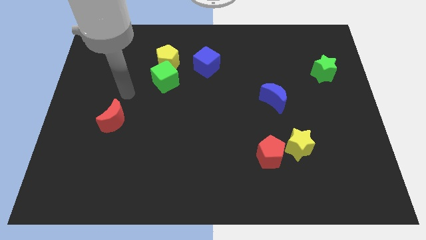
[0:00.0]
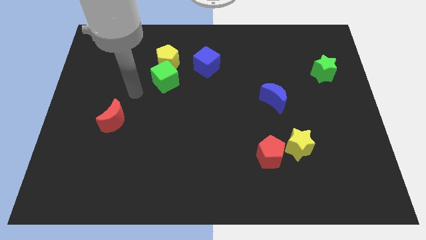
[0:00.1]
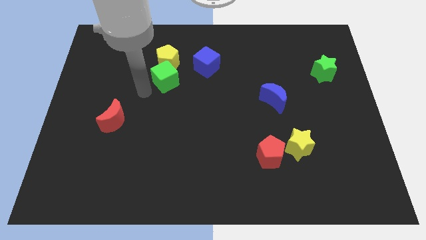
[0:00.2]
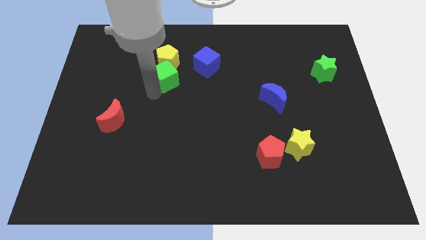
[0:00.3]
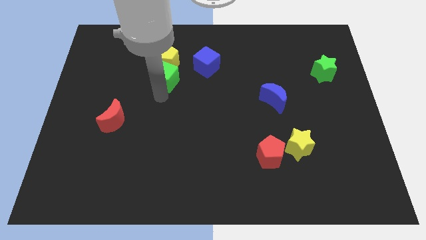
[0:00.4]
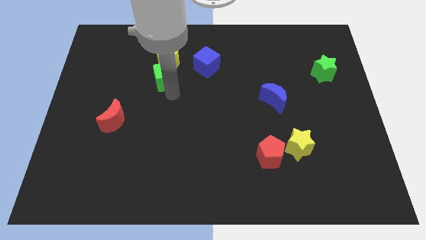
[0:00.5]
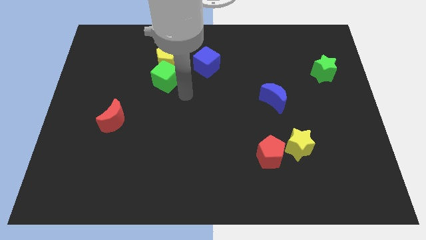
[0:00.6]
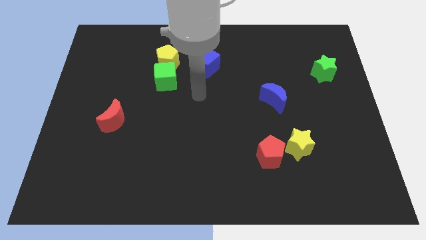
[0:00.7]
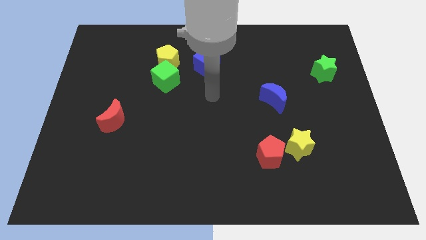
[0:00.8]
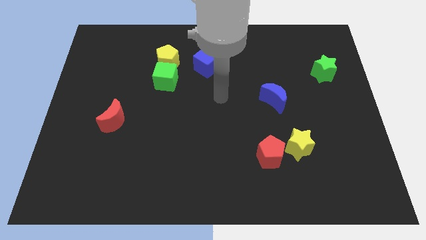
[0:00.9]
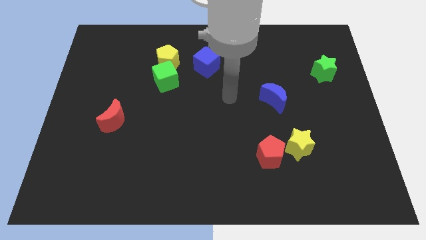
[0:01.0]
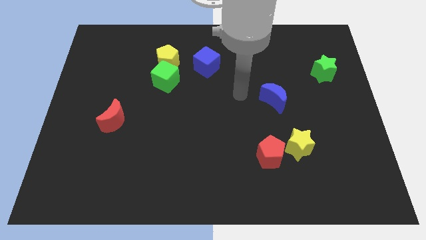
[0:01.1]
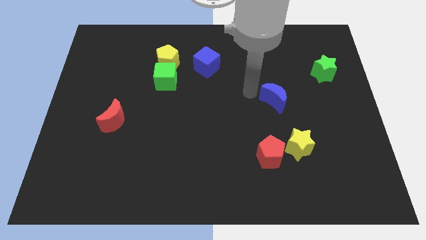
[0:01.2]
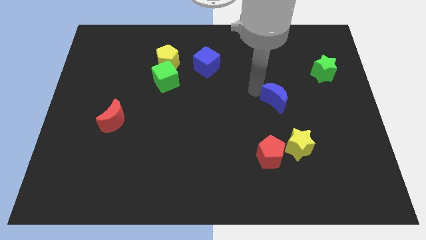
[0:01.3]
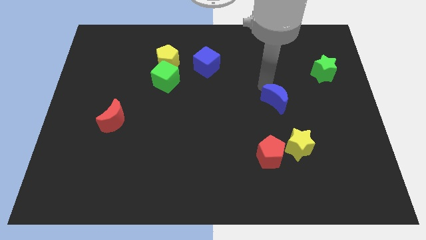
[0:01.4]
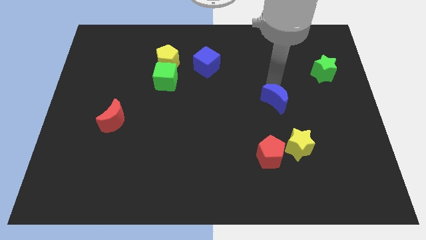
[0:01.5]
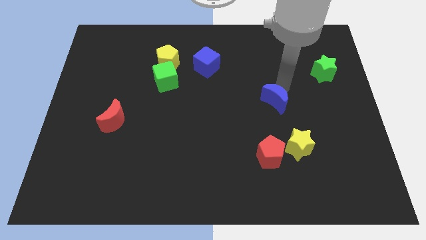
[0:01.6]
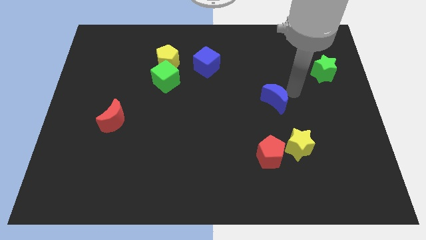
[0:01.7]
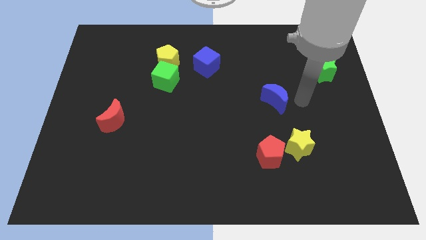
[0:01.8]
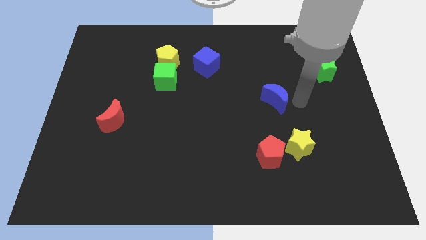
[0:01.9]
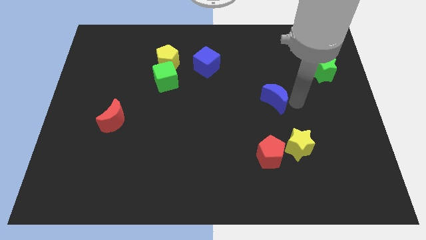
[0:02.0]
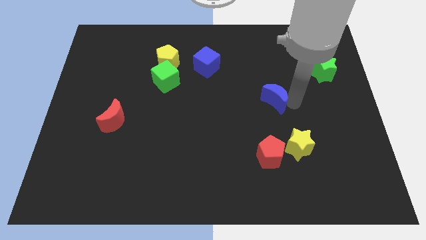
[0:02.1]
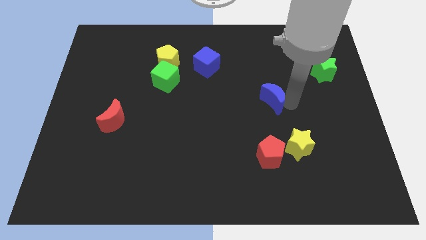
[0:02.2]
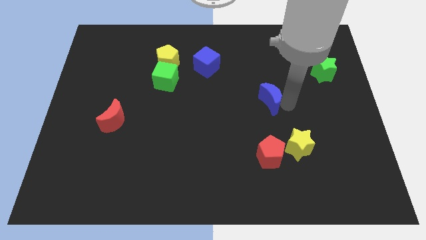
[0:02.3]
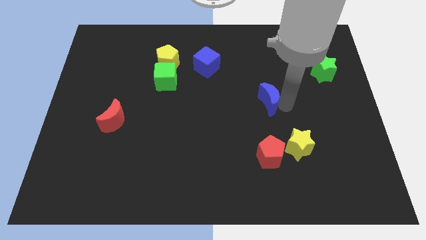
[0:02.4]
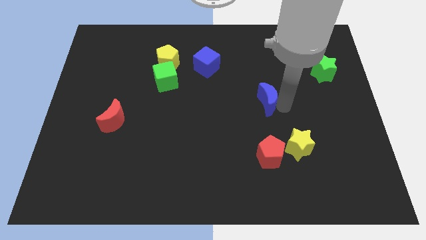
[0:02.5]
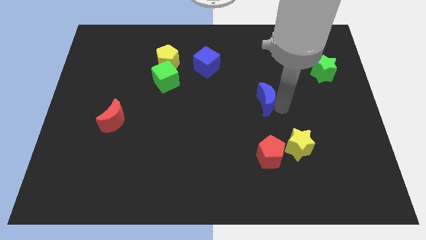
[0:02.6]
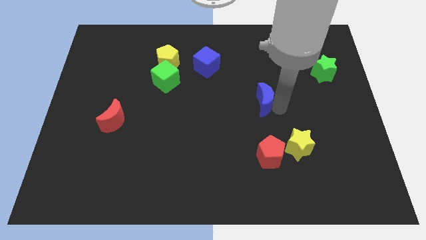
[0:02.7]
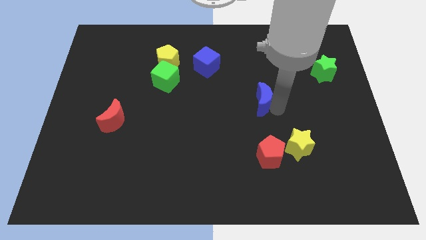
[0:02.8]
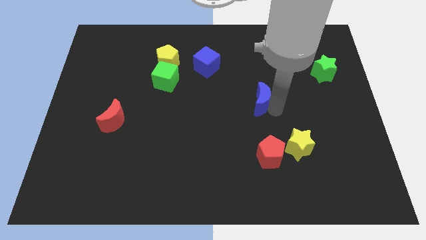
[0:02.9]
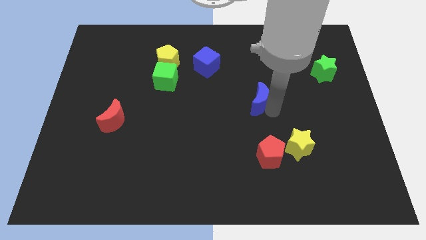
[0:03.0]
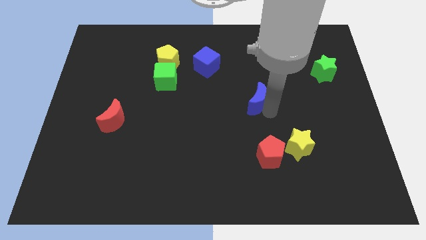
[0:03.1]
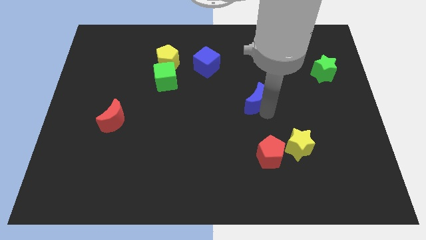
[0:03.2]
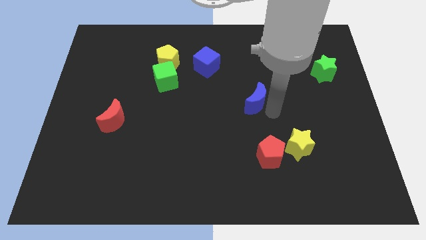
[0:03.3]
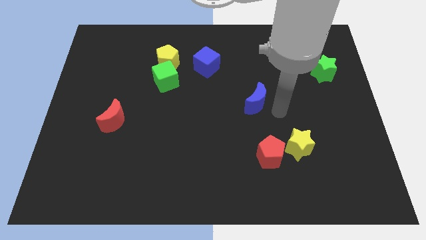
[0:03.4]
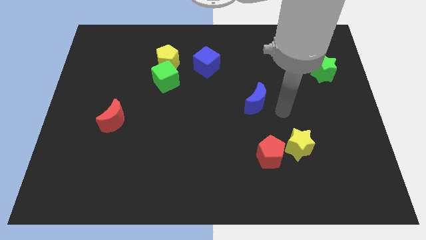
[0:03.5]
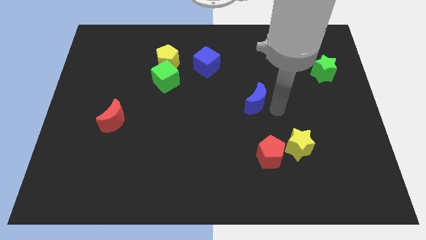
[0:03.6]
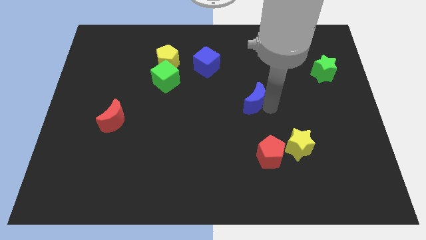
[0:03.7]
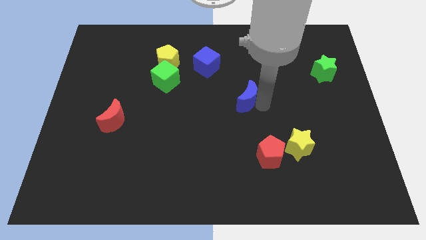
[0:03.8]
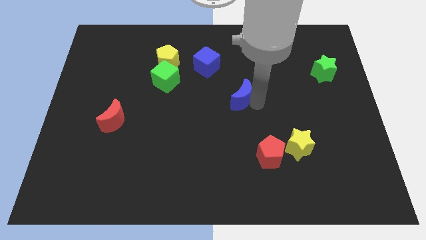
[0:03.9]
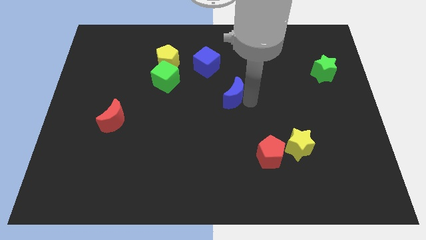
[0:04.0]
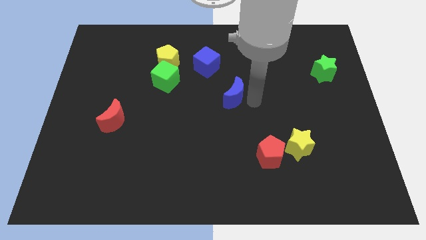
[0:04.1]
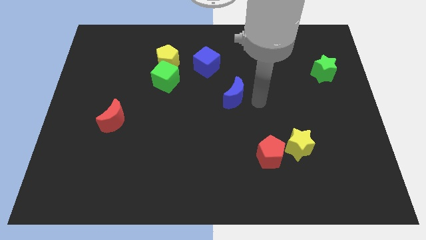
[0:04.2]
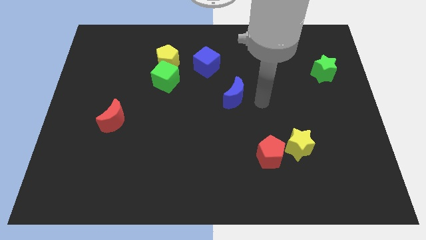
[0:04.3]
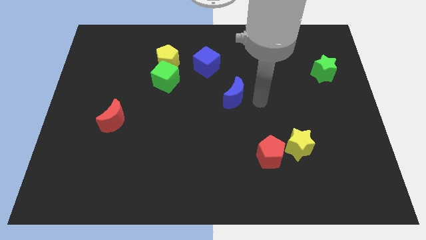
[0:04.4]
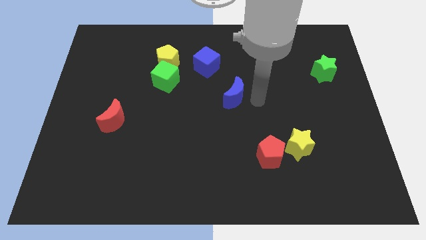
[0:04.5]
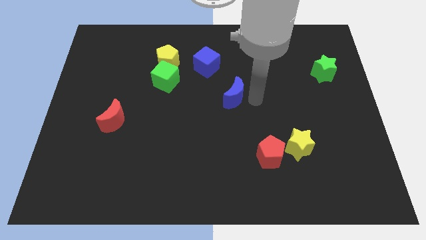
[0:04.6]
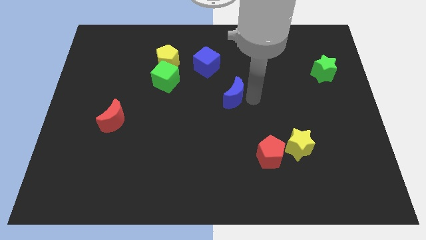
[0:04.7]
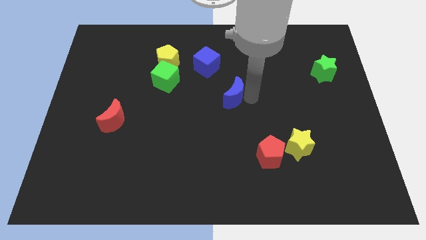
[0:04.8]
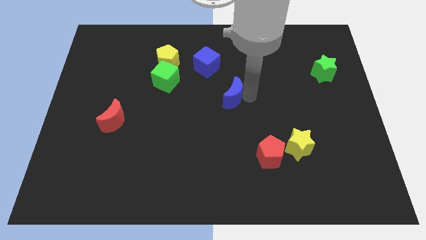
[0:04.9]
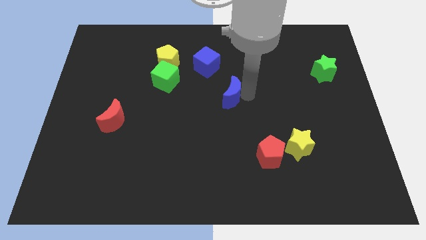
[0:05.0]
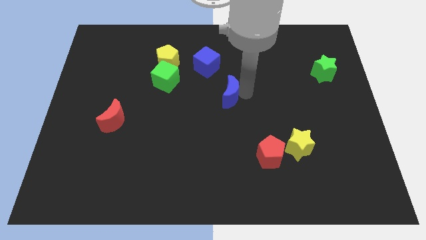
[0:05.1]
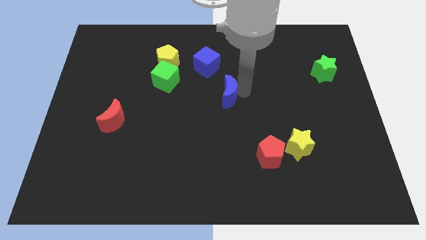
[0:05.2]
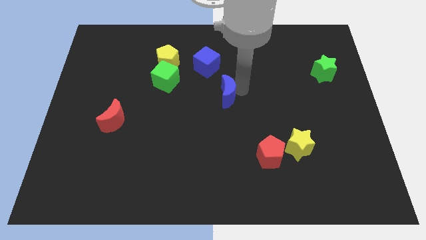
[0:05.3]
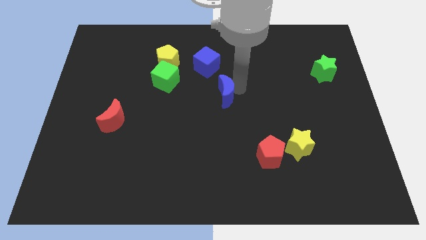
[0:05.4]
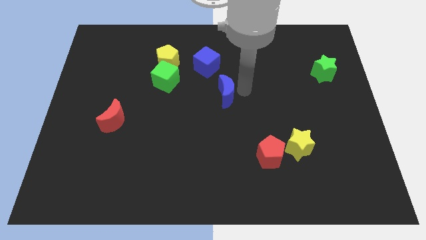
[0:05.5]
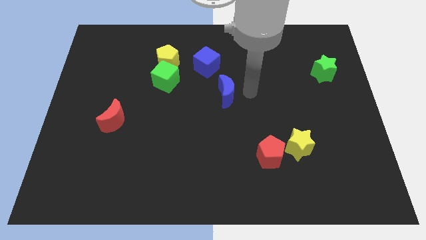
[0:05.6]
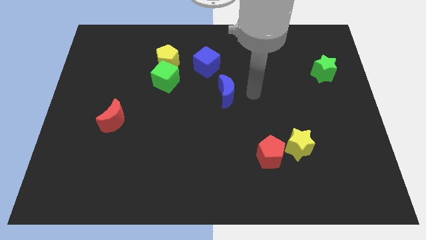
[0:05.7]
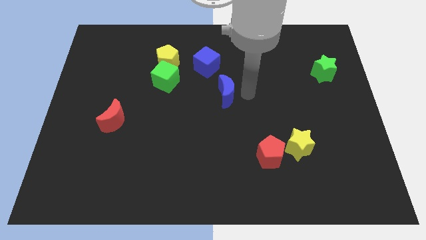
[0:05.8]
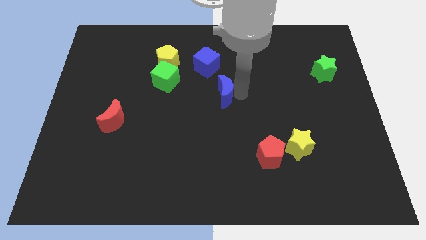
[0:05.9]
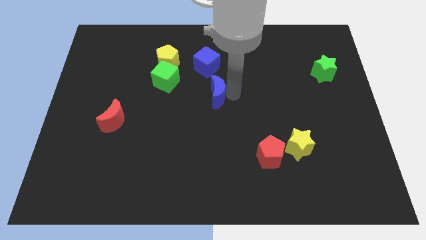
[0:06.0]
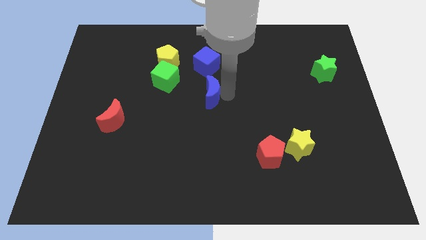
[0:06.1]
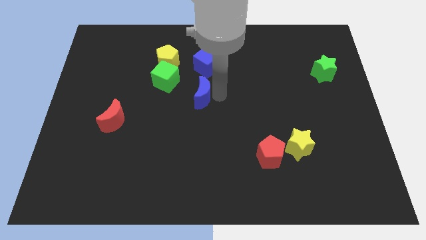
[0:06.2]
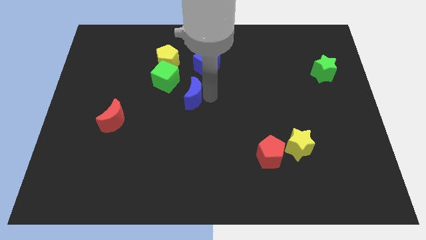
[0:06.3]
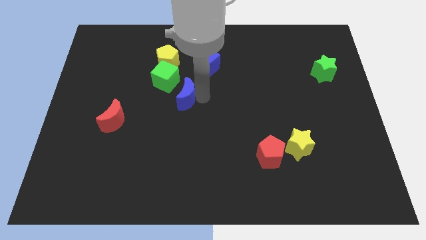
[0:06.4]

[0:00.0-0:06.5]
push the blue moon left

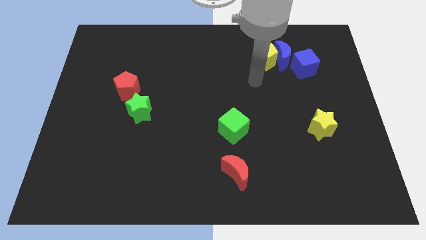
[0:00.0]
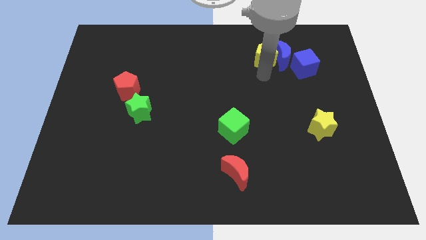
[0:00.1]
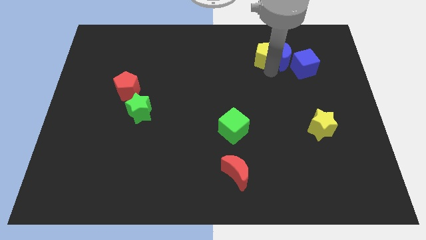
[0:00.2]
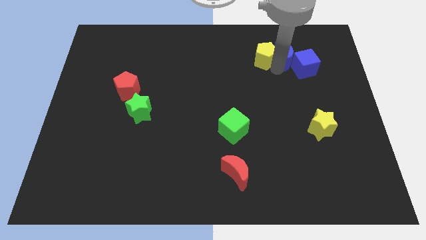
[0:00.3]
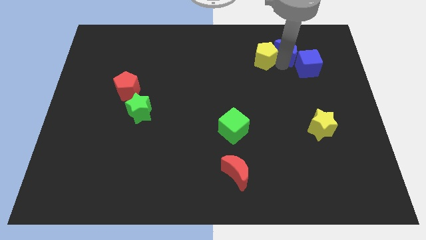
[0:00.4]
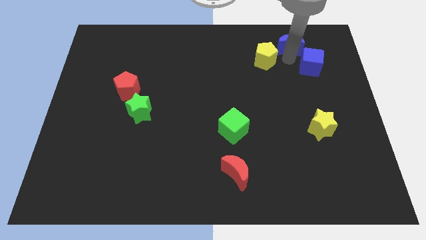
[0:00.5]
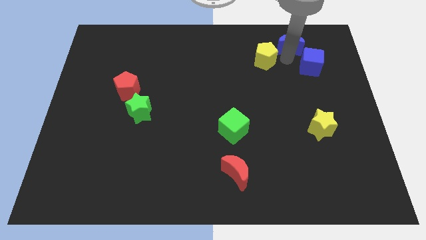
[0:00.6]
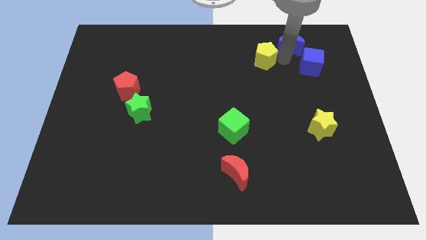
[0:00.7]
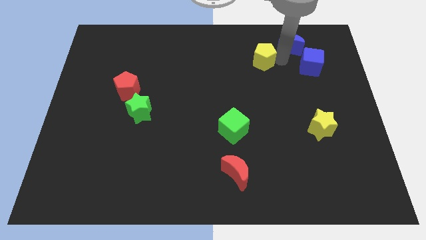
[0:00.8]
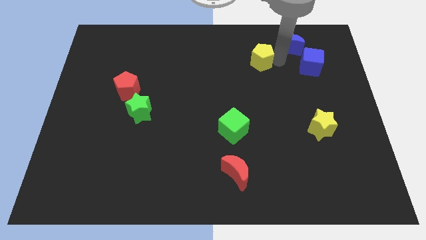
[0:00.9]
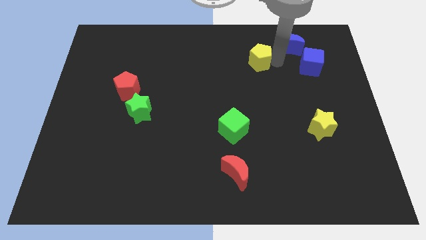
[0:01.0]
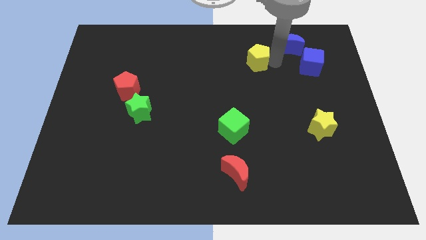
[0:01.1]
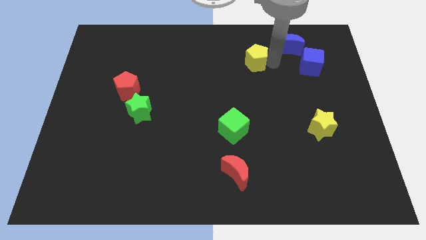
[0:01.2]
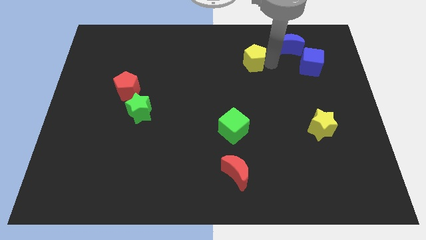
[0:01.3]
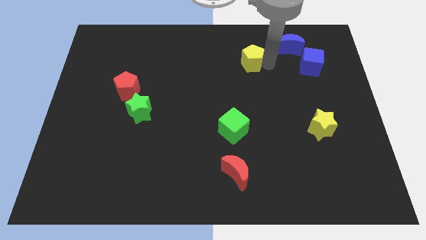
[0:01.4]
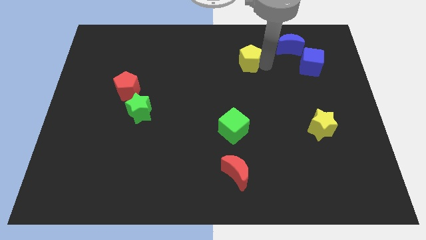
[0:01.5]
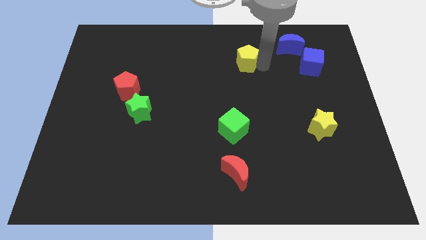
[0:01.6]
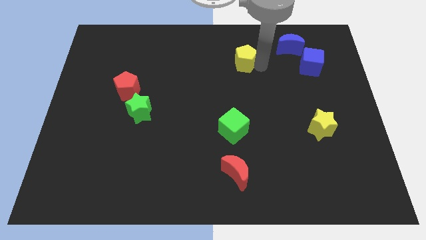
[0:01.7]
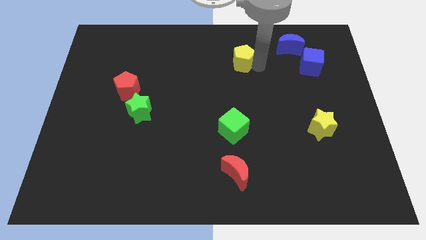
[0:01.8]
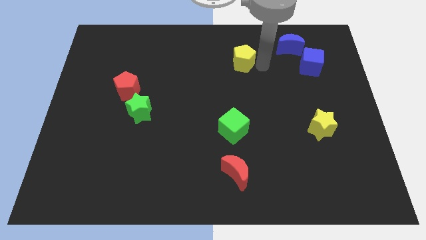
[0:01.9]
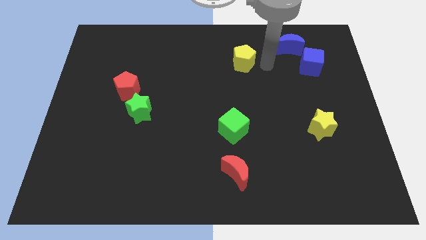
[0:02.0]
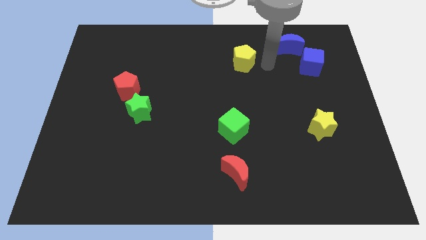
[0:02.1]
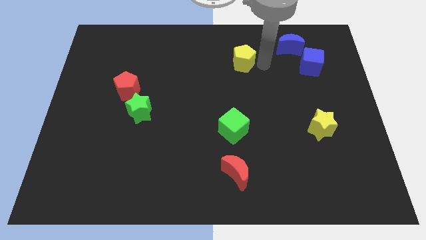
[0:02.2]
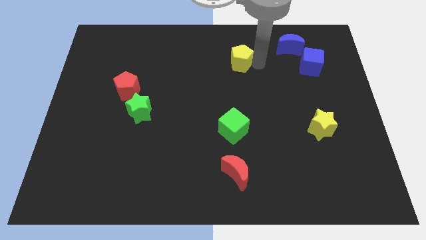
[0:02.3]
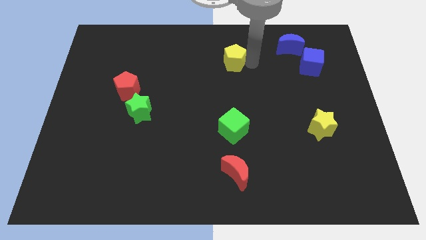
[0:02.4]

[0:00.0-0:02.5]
move the yellow pentagon slightly to the left
